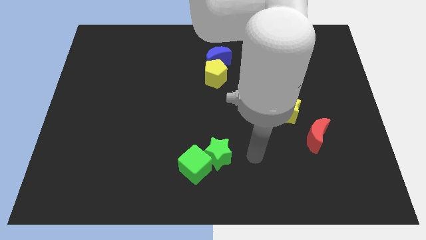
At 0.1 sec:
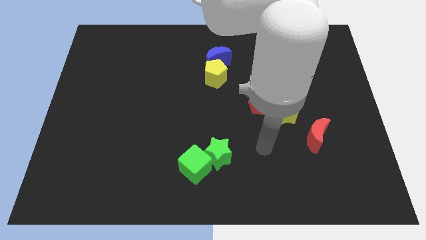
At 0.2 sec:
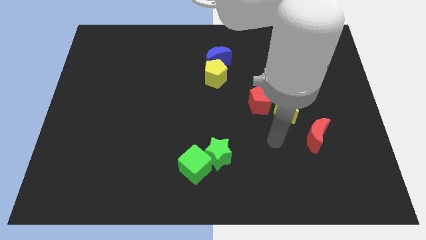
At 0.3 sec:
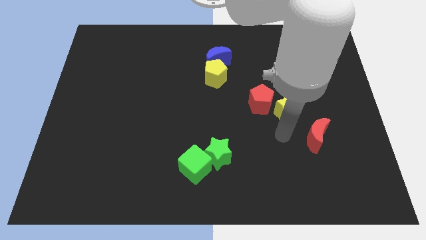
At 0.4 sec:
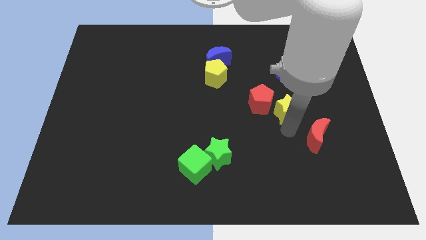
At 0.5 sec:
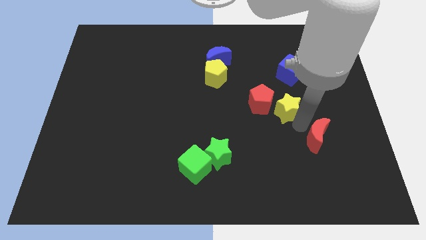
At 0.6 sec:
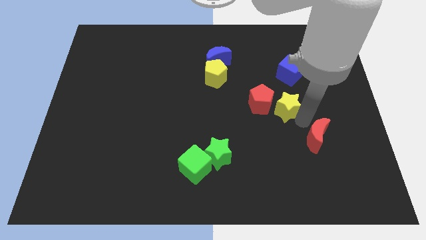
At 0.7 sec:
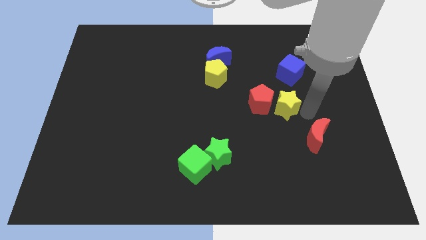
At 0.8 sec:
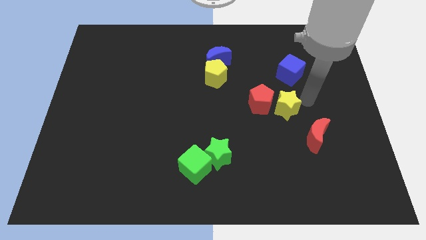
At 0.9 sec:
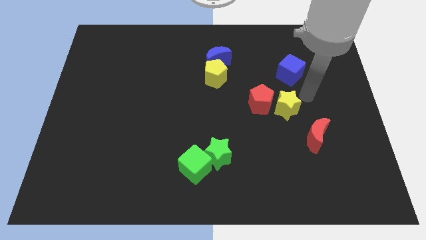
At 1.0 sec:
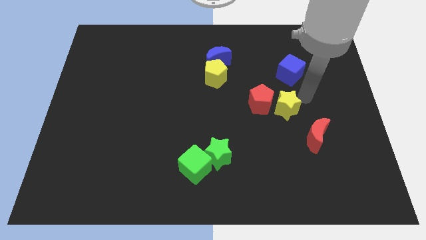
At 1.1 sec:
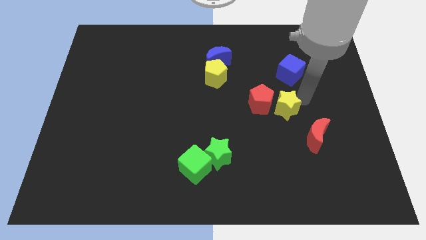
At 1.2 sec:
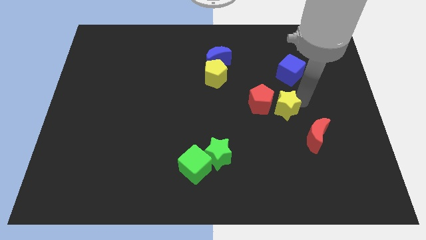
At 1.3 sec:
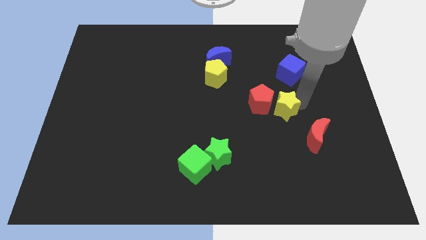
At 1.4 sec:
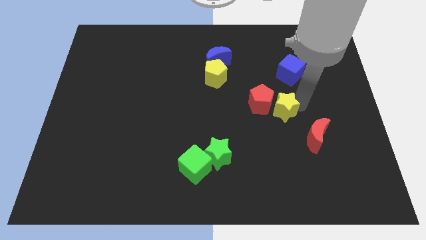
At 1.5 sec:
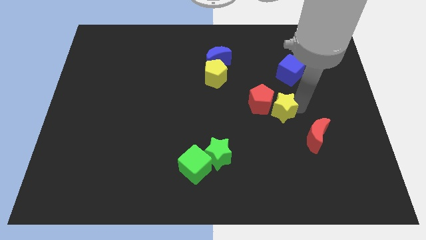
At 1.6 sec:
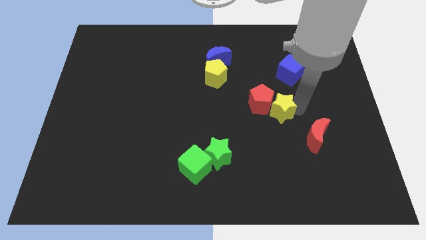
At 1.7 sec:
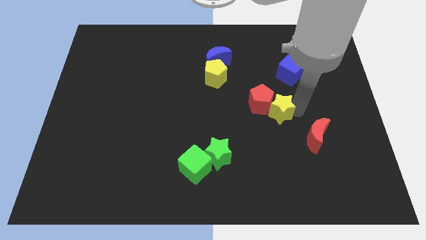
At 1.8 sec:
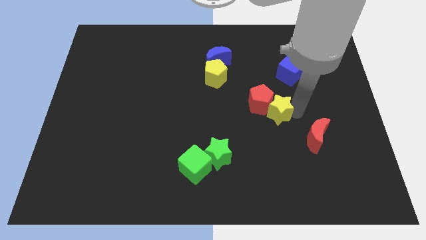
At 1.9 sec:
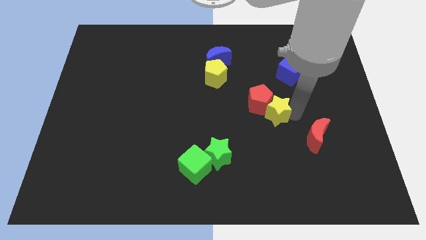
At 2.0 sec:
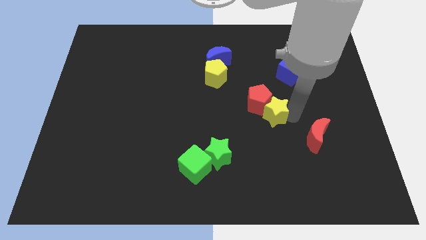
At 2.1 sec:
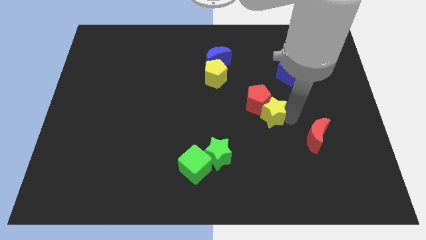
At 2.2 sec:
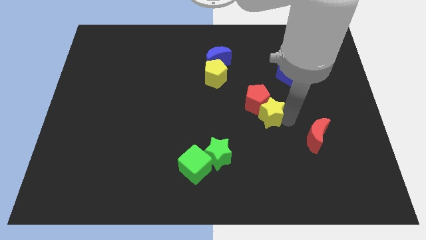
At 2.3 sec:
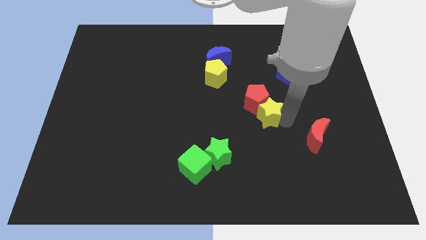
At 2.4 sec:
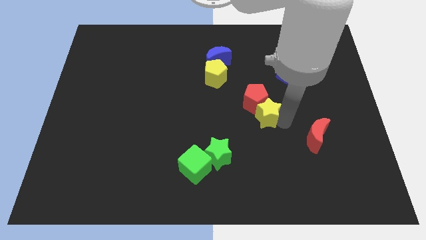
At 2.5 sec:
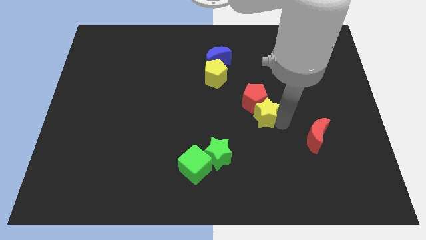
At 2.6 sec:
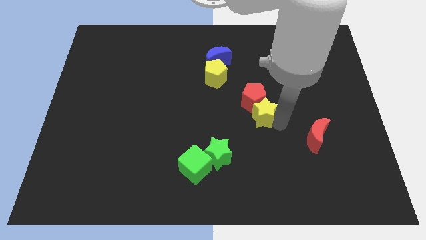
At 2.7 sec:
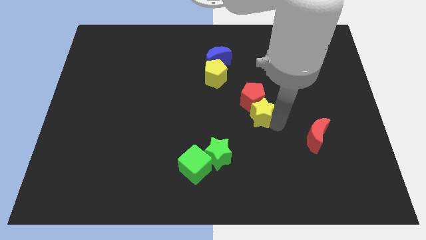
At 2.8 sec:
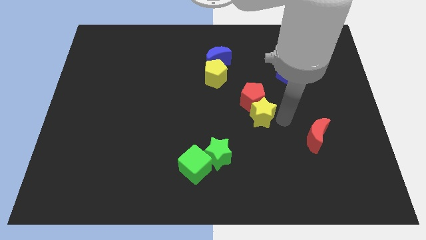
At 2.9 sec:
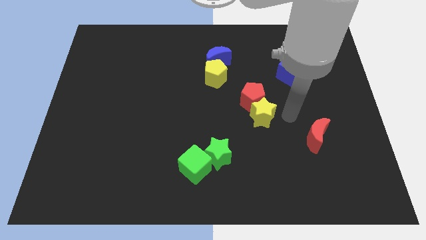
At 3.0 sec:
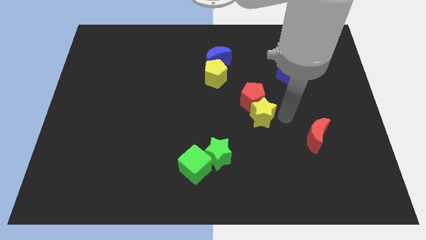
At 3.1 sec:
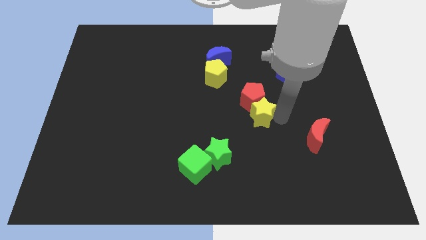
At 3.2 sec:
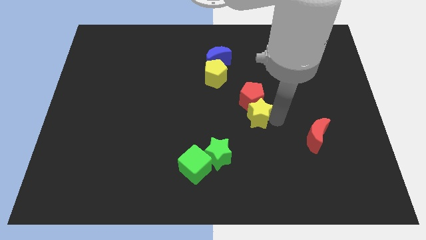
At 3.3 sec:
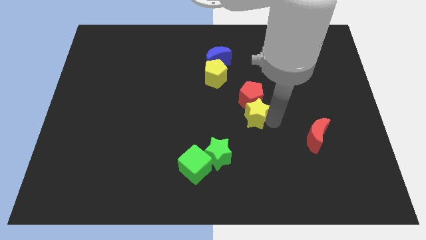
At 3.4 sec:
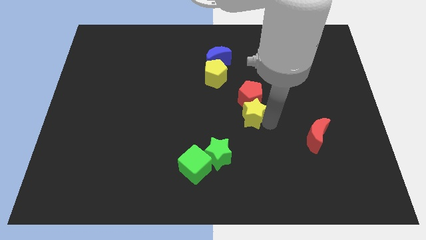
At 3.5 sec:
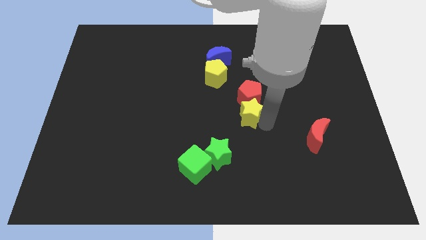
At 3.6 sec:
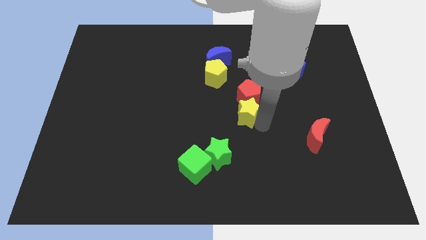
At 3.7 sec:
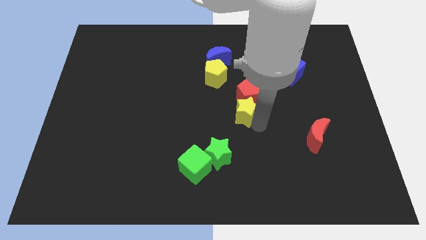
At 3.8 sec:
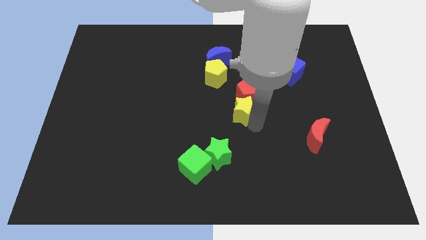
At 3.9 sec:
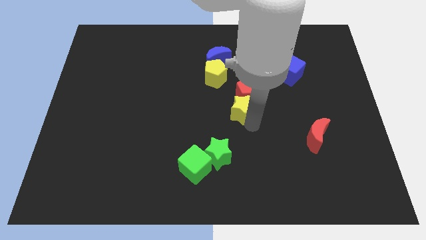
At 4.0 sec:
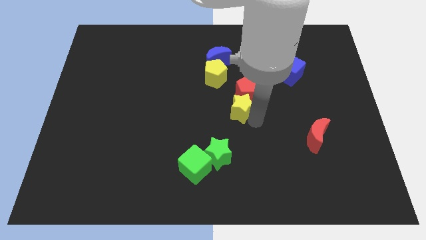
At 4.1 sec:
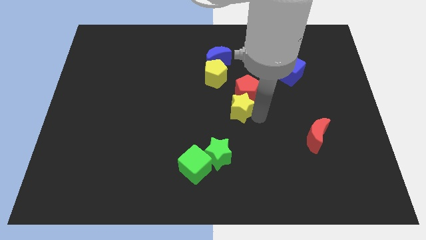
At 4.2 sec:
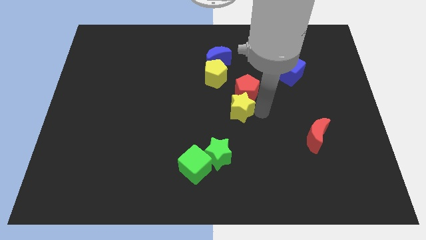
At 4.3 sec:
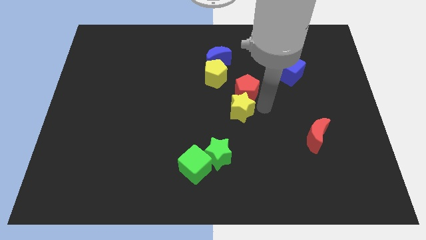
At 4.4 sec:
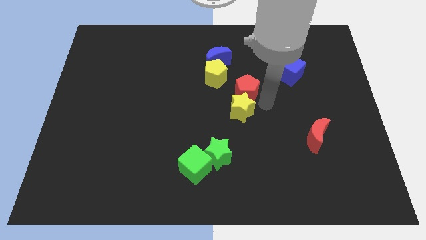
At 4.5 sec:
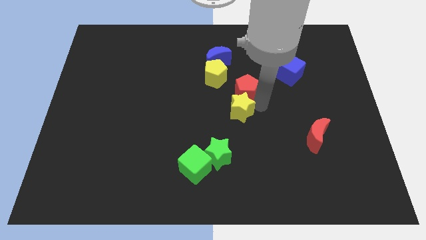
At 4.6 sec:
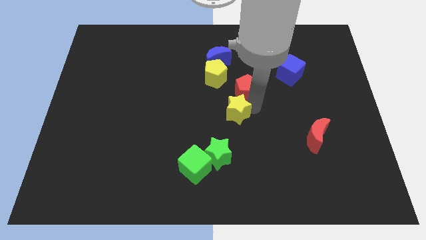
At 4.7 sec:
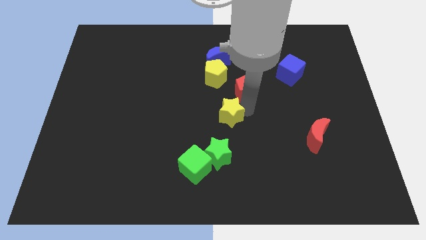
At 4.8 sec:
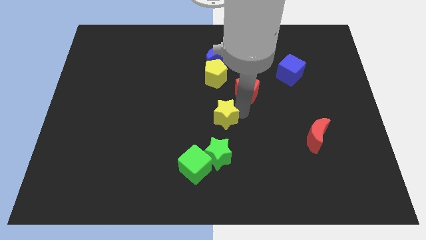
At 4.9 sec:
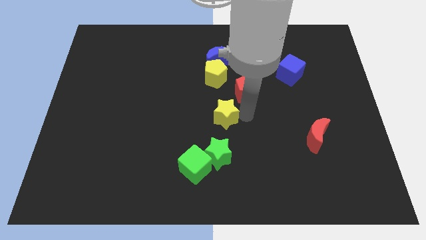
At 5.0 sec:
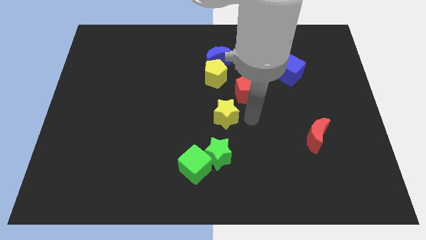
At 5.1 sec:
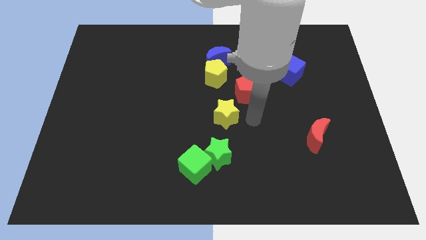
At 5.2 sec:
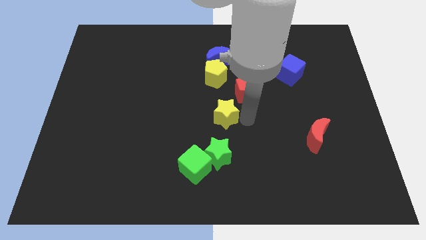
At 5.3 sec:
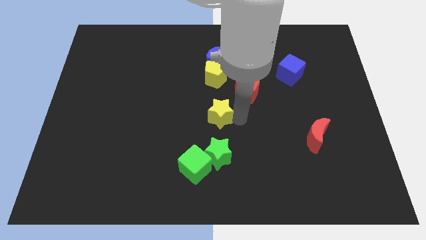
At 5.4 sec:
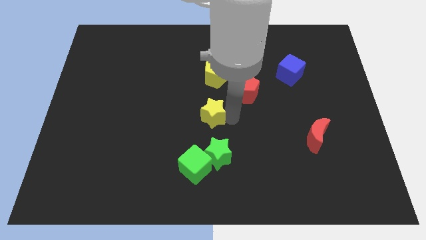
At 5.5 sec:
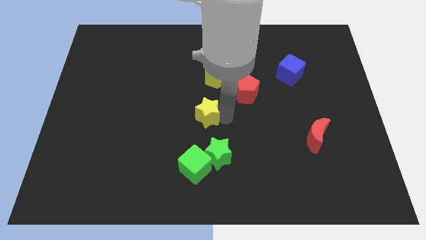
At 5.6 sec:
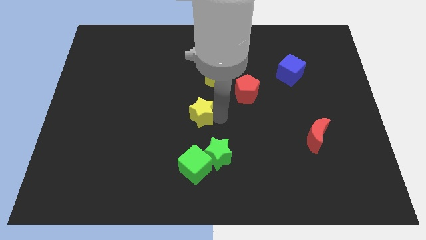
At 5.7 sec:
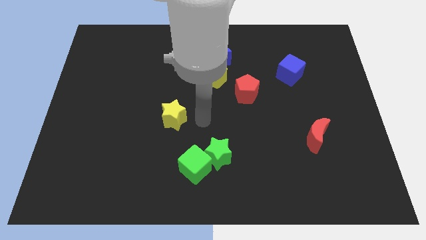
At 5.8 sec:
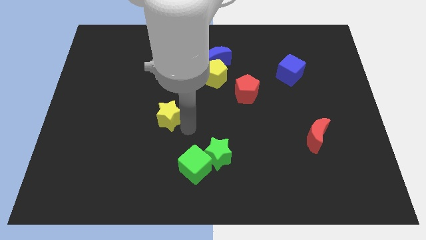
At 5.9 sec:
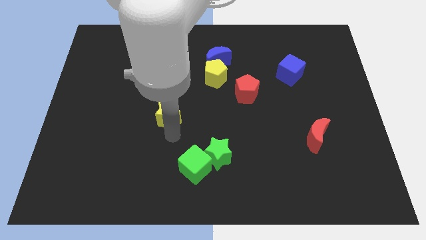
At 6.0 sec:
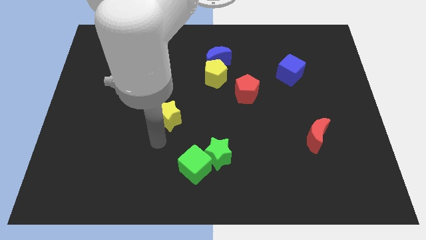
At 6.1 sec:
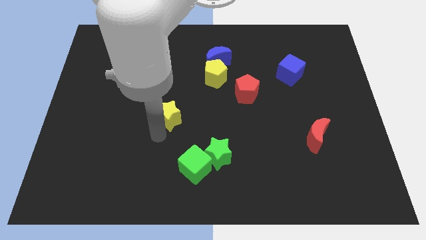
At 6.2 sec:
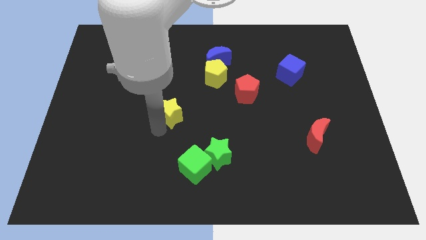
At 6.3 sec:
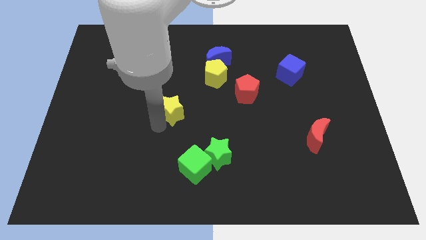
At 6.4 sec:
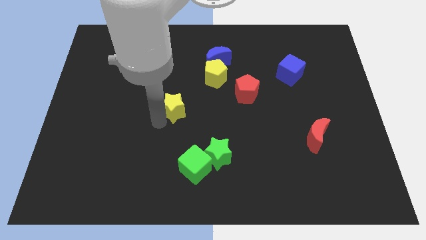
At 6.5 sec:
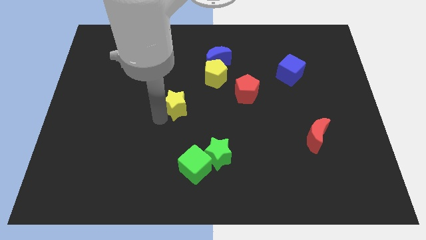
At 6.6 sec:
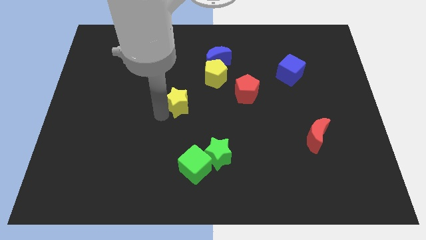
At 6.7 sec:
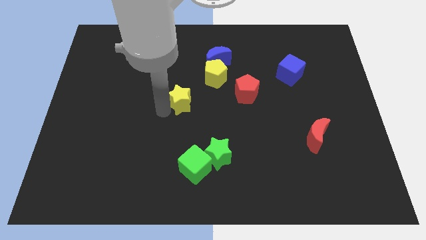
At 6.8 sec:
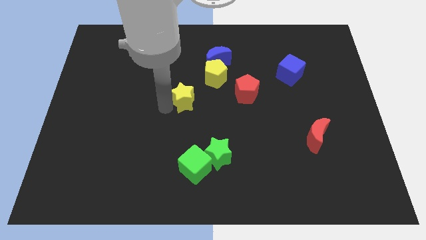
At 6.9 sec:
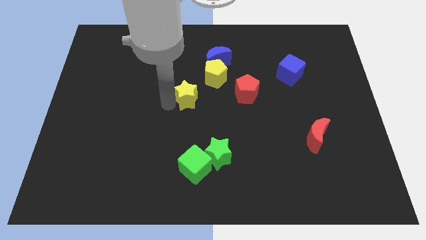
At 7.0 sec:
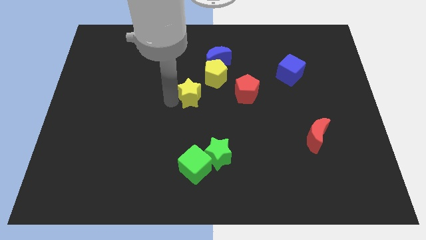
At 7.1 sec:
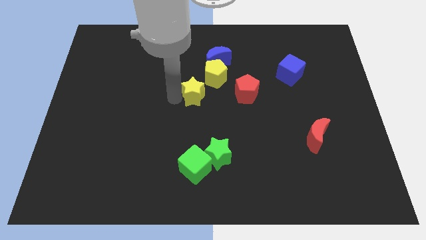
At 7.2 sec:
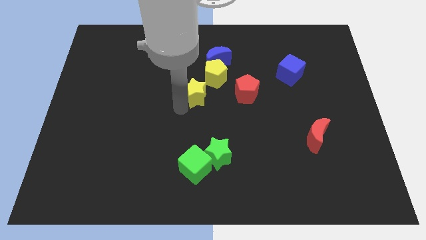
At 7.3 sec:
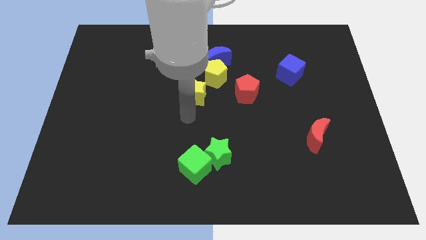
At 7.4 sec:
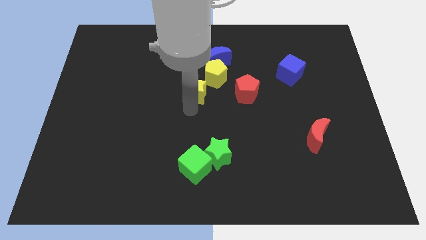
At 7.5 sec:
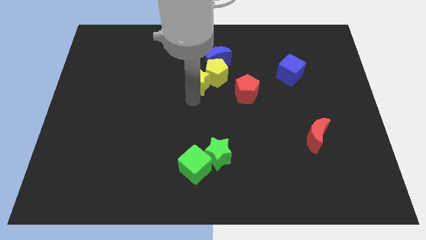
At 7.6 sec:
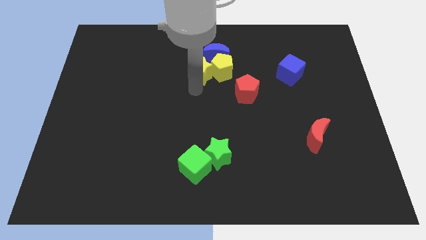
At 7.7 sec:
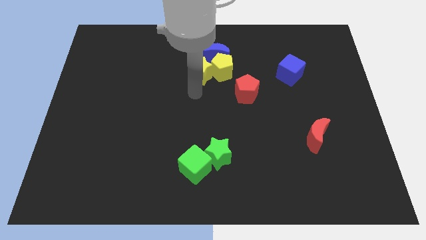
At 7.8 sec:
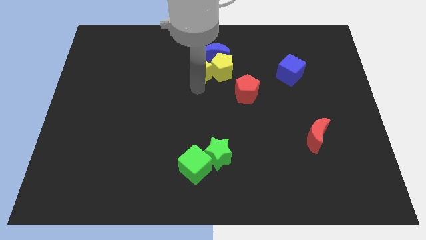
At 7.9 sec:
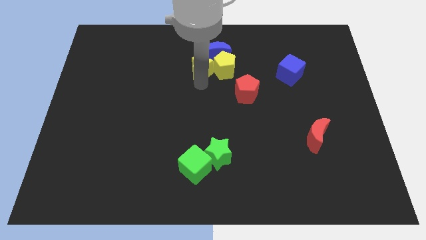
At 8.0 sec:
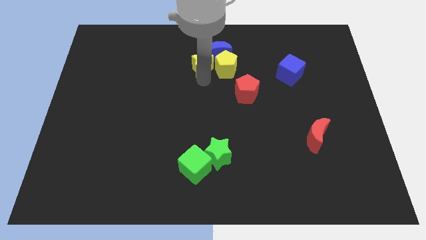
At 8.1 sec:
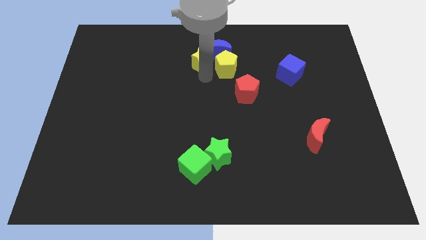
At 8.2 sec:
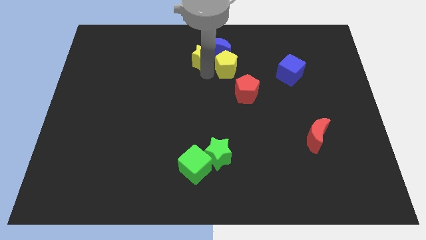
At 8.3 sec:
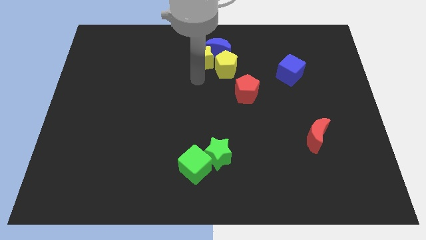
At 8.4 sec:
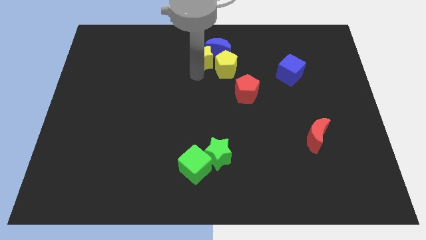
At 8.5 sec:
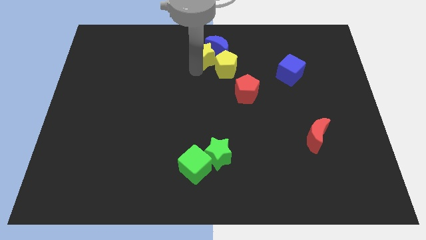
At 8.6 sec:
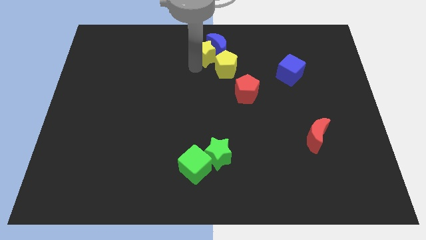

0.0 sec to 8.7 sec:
slide the yellow star to the top side
